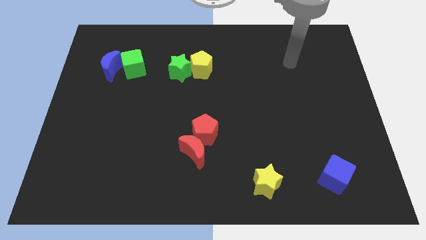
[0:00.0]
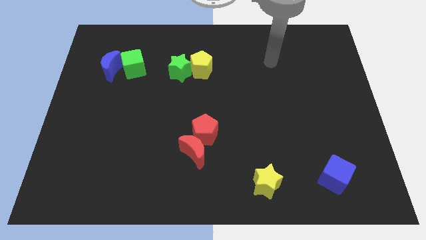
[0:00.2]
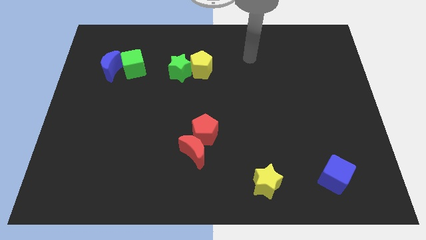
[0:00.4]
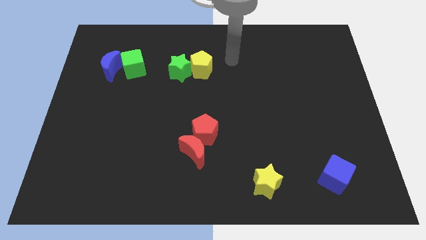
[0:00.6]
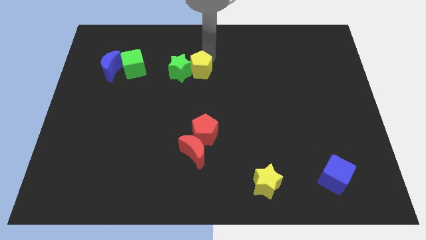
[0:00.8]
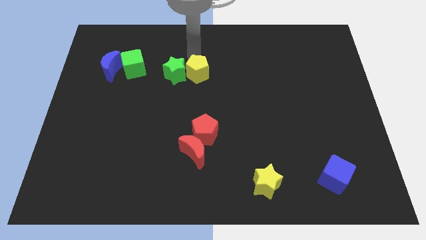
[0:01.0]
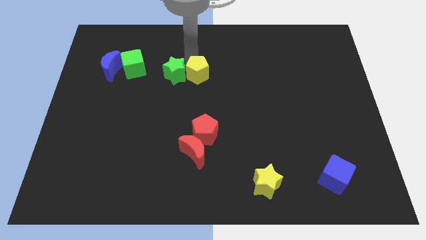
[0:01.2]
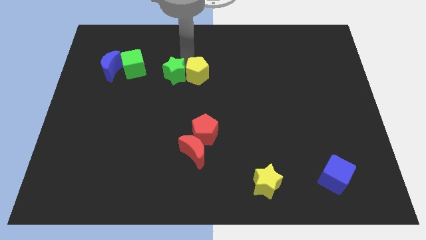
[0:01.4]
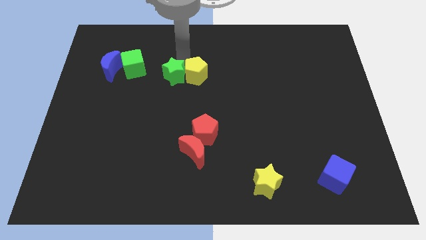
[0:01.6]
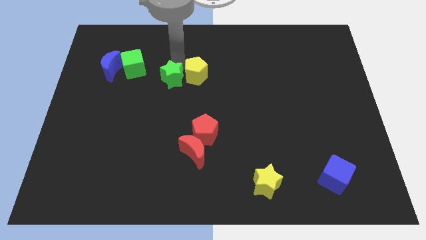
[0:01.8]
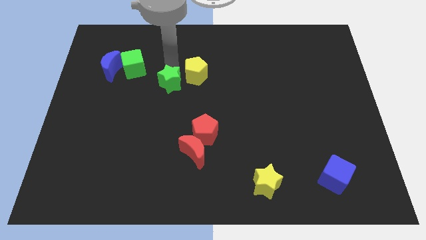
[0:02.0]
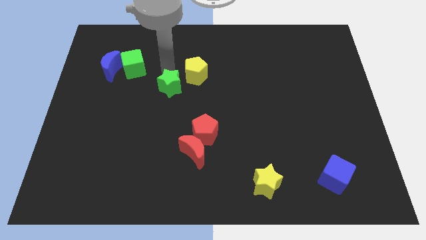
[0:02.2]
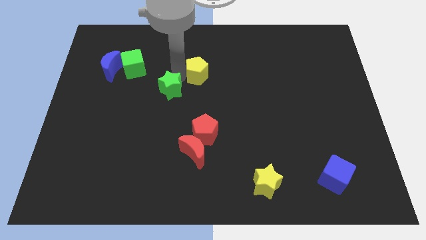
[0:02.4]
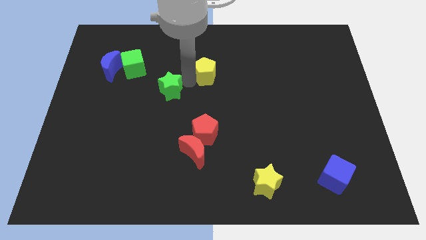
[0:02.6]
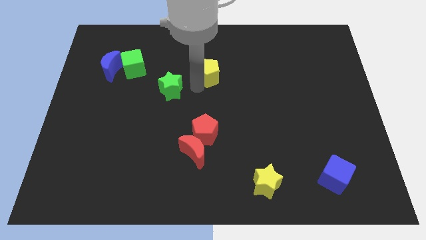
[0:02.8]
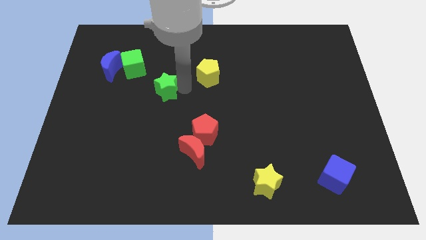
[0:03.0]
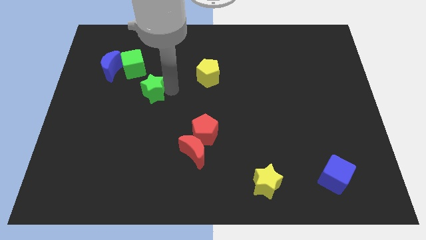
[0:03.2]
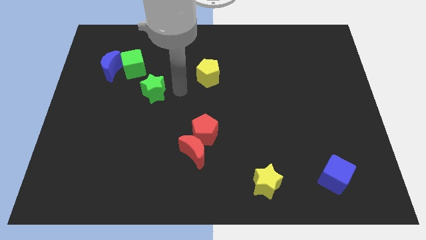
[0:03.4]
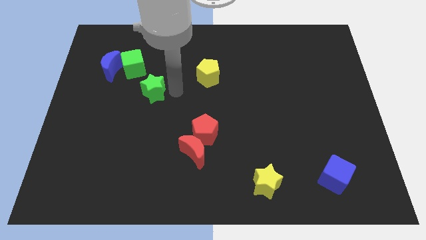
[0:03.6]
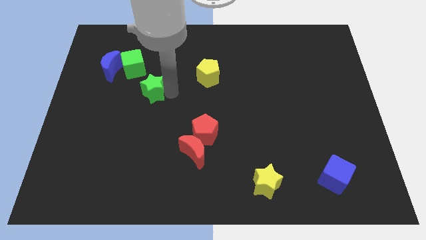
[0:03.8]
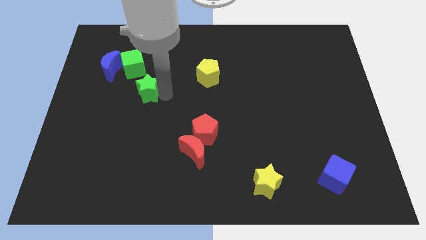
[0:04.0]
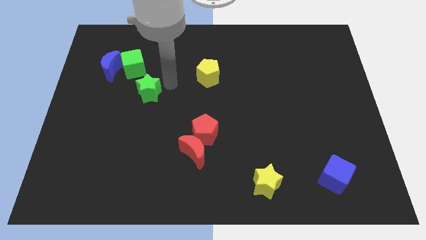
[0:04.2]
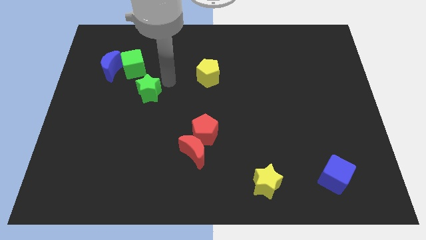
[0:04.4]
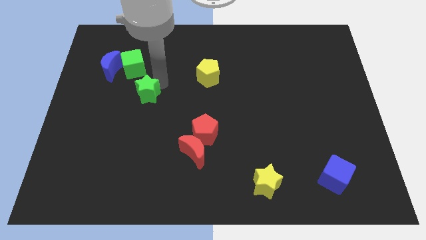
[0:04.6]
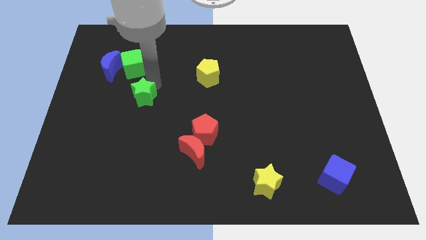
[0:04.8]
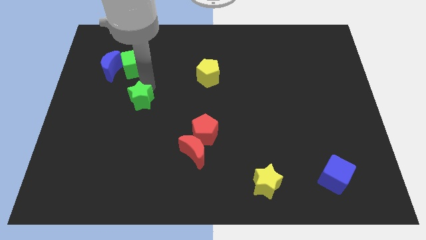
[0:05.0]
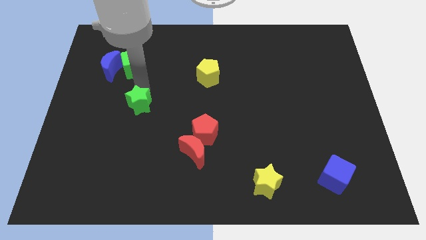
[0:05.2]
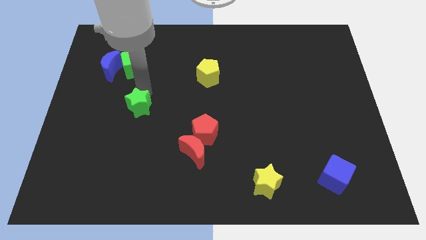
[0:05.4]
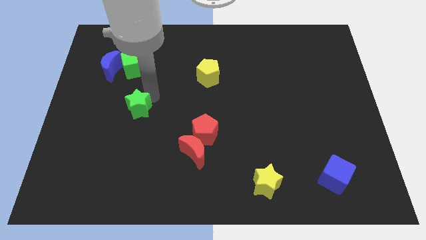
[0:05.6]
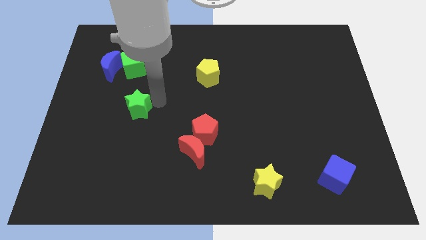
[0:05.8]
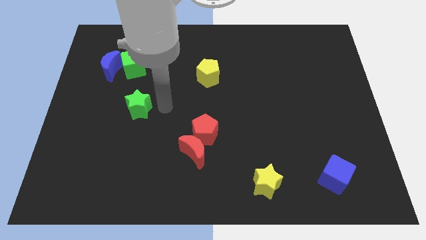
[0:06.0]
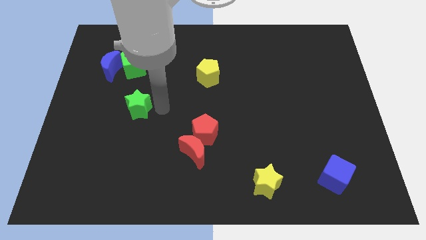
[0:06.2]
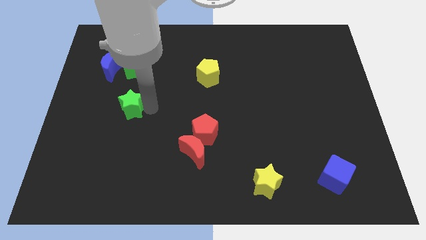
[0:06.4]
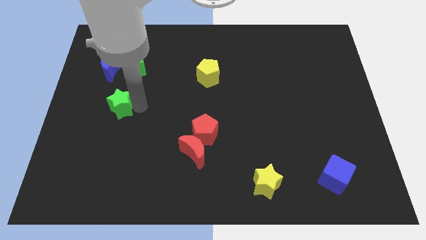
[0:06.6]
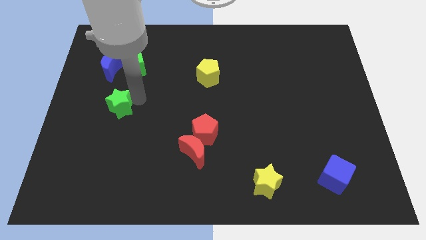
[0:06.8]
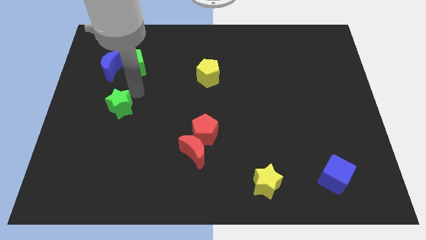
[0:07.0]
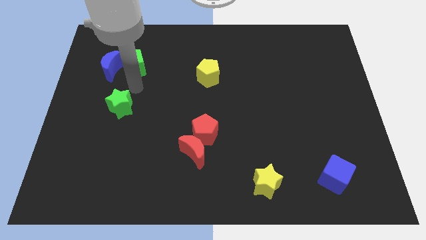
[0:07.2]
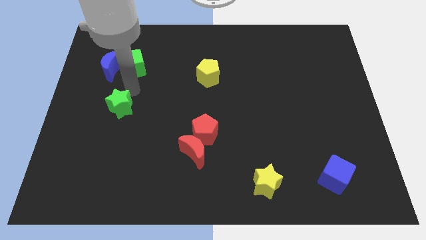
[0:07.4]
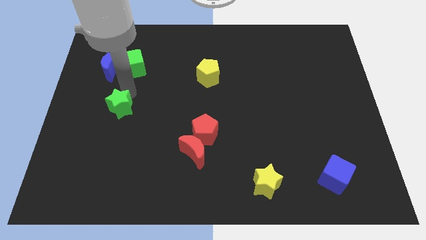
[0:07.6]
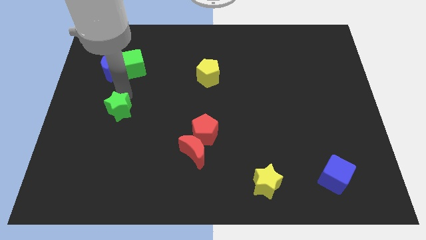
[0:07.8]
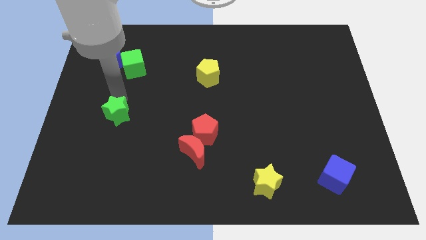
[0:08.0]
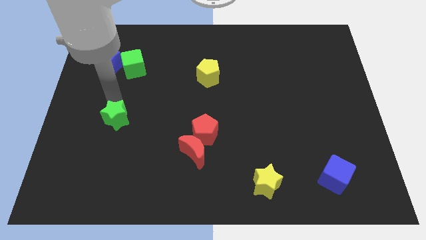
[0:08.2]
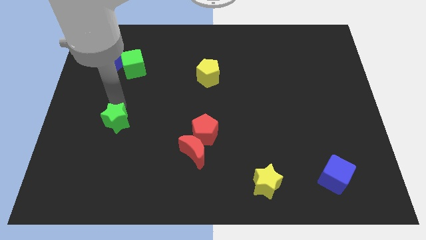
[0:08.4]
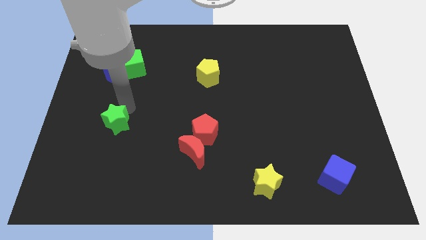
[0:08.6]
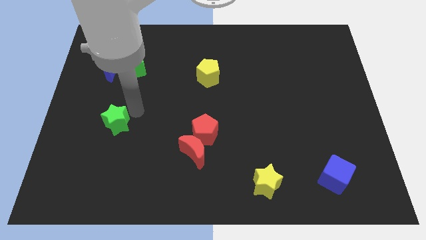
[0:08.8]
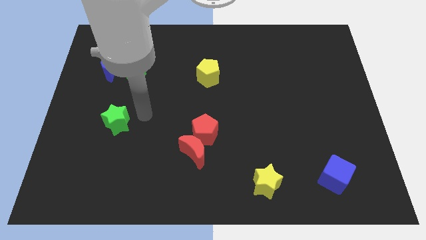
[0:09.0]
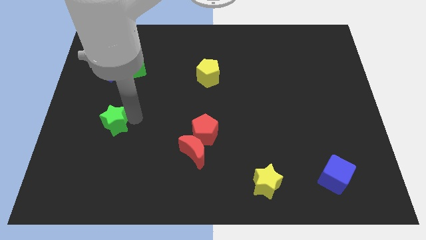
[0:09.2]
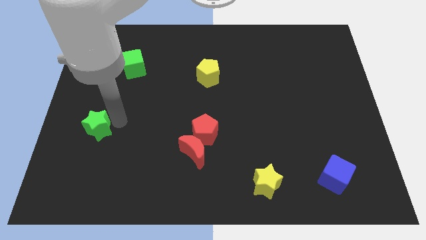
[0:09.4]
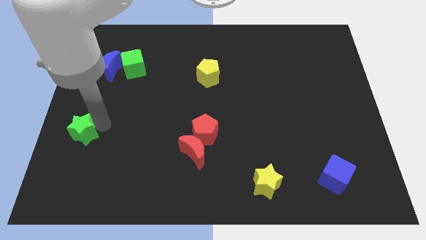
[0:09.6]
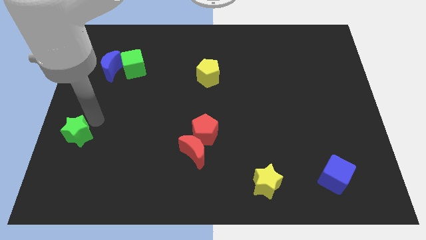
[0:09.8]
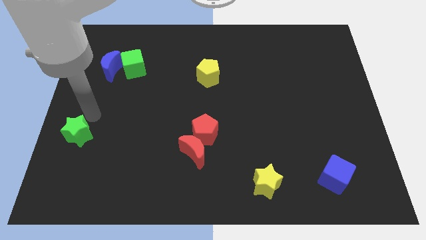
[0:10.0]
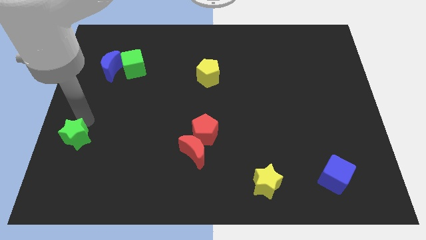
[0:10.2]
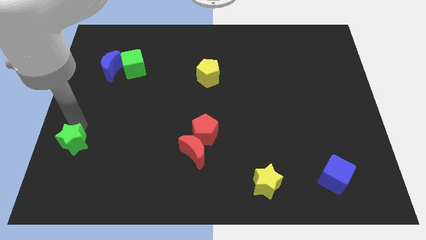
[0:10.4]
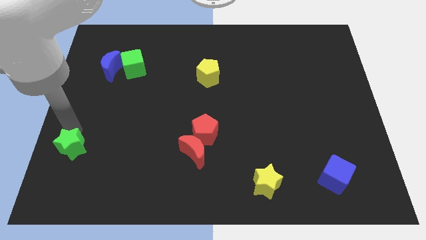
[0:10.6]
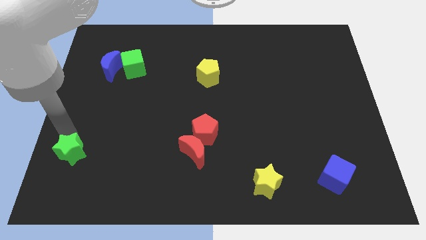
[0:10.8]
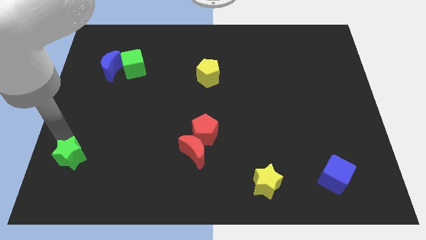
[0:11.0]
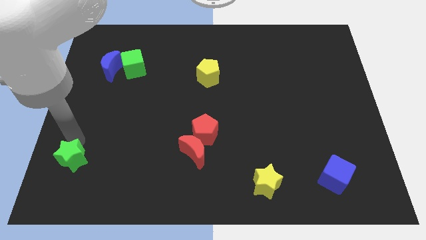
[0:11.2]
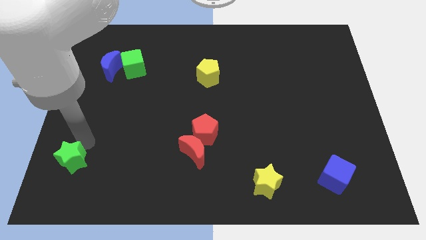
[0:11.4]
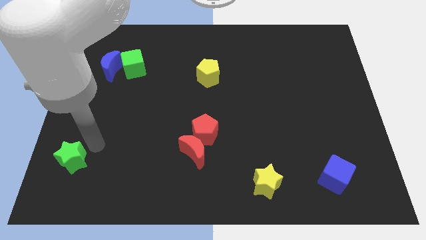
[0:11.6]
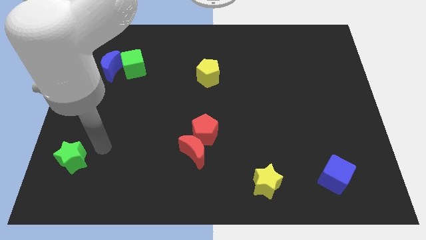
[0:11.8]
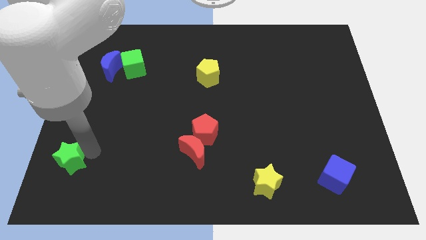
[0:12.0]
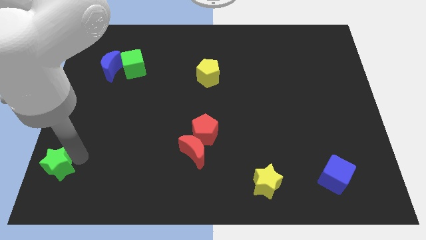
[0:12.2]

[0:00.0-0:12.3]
push the green star to the bottom left
